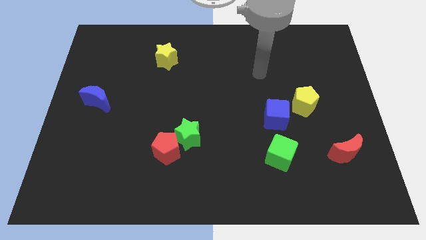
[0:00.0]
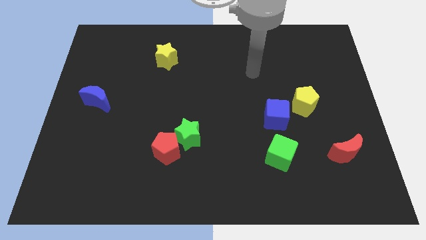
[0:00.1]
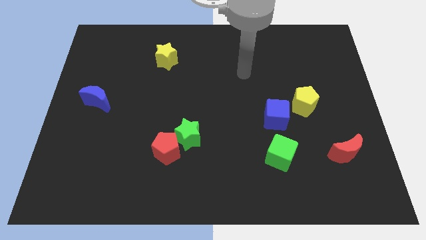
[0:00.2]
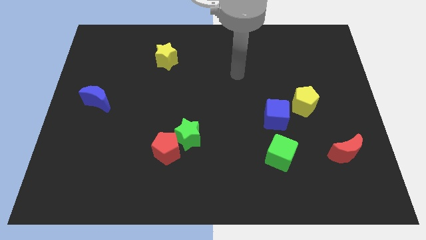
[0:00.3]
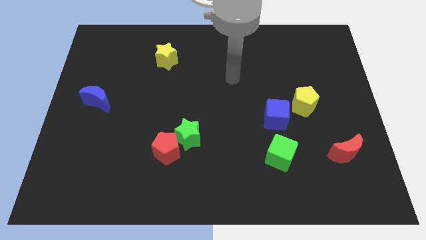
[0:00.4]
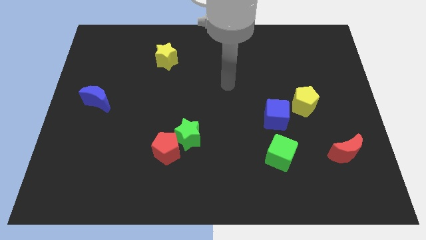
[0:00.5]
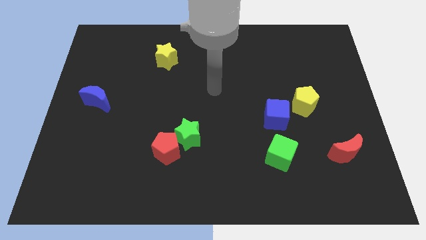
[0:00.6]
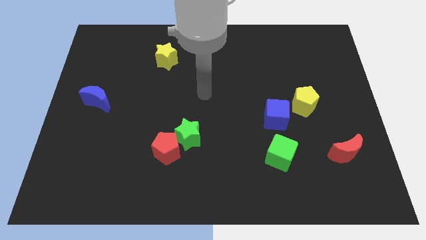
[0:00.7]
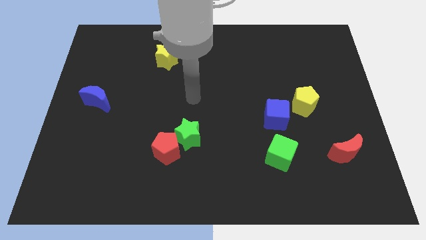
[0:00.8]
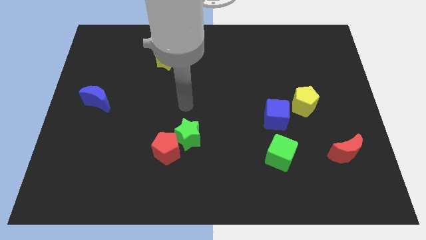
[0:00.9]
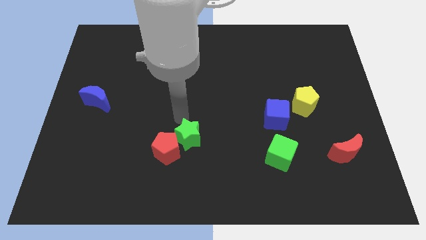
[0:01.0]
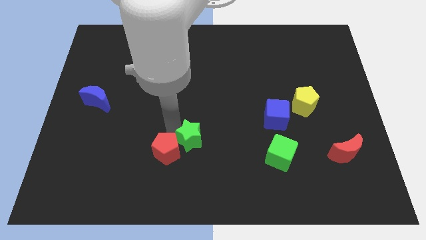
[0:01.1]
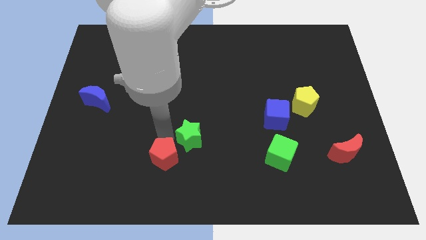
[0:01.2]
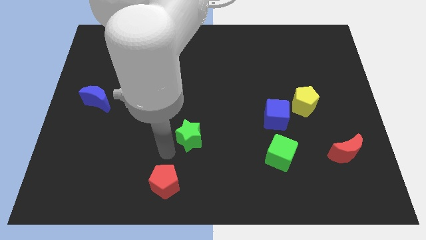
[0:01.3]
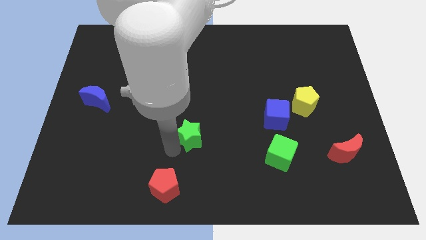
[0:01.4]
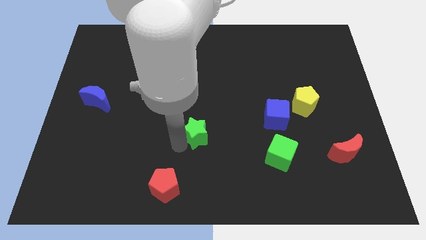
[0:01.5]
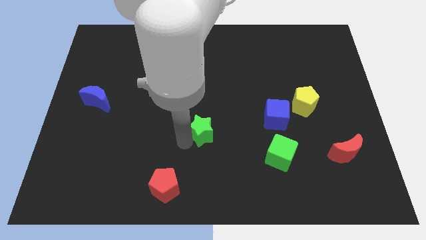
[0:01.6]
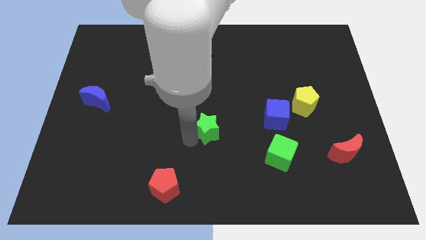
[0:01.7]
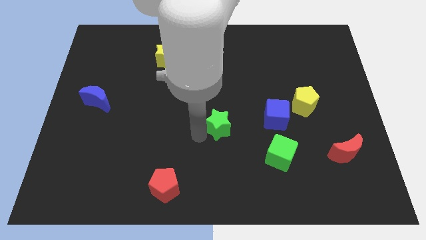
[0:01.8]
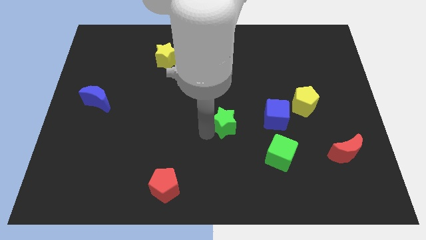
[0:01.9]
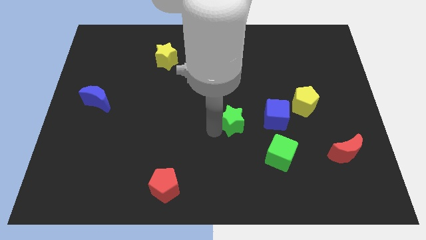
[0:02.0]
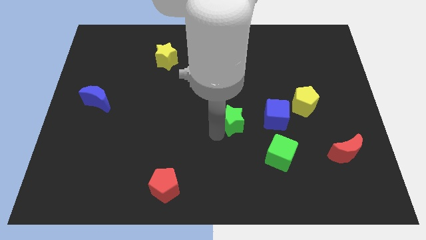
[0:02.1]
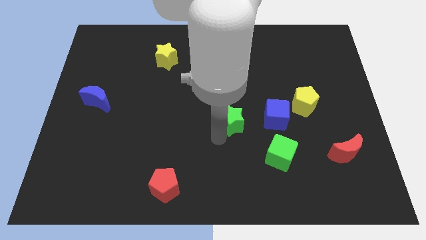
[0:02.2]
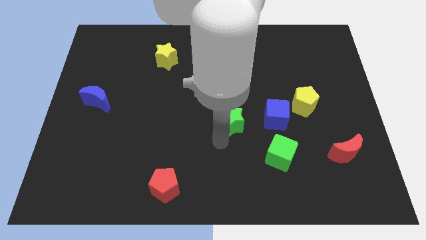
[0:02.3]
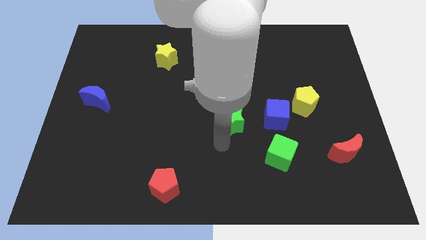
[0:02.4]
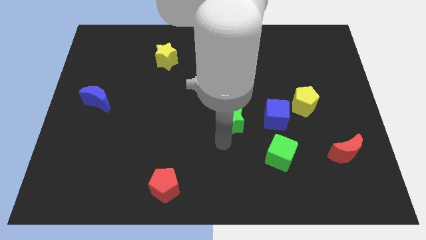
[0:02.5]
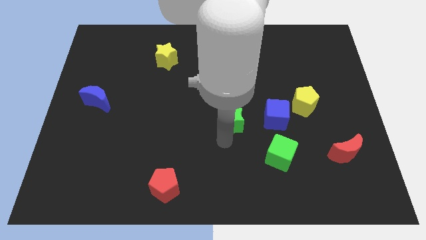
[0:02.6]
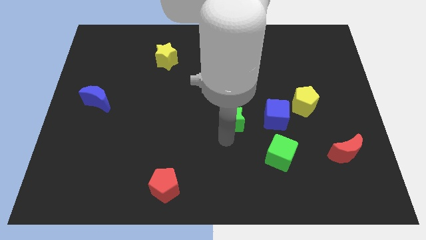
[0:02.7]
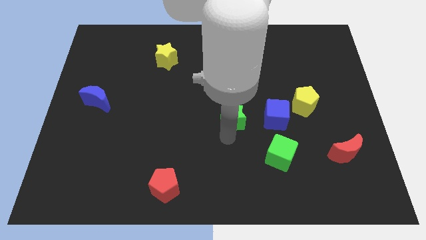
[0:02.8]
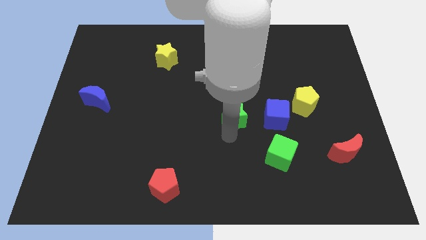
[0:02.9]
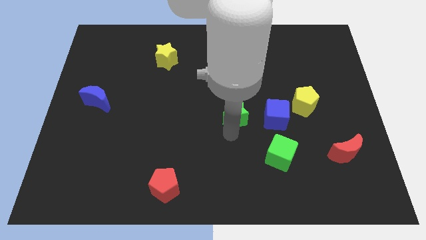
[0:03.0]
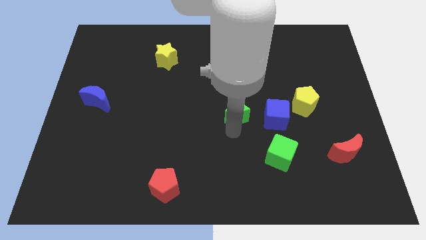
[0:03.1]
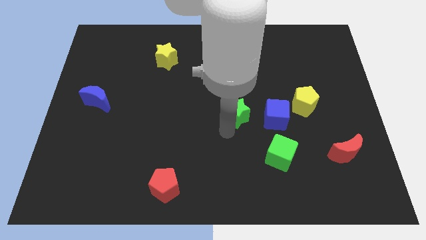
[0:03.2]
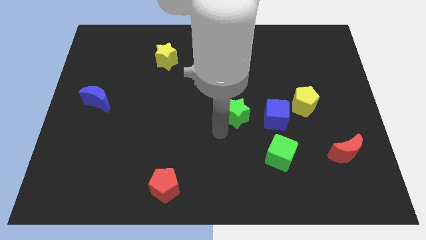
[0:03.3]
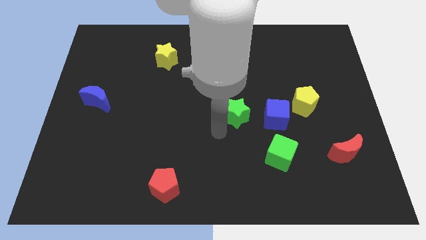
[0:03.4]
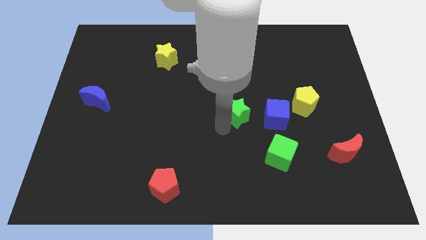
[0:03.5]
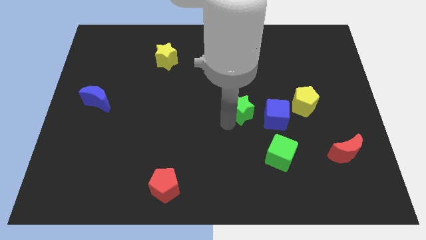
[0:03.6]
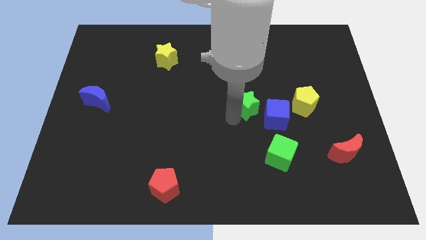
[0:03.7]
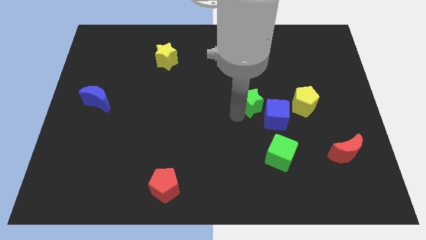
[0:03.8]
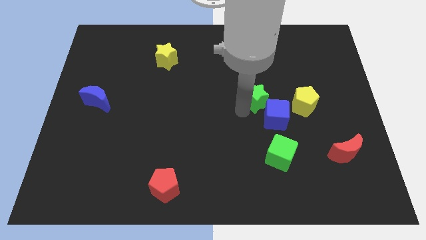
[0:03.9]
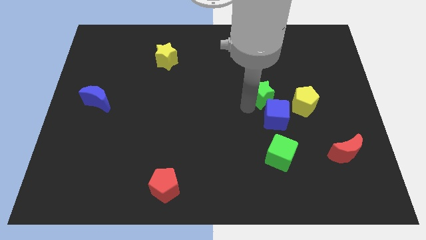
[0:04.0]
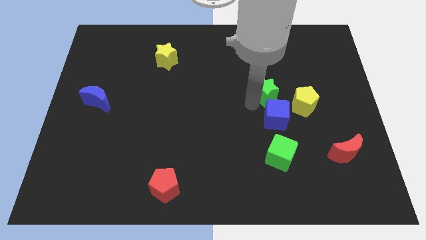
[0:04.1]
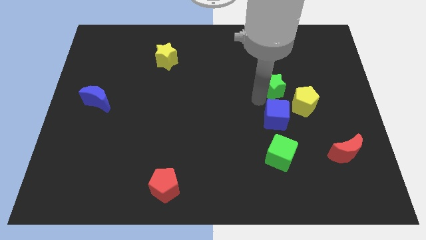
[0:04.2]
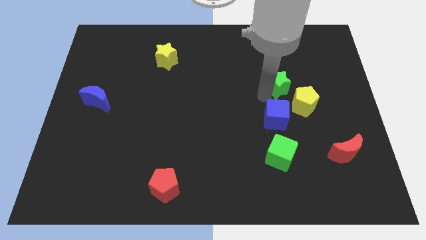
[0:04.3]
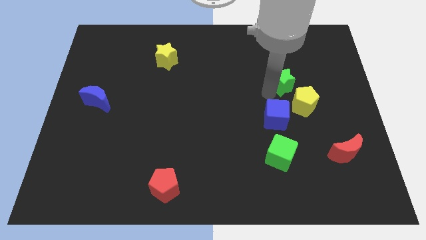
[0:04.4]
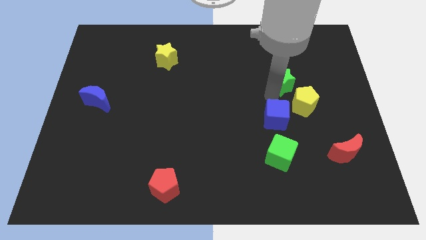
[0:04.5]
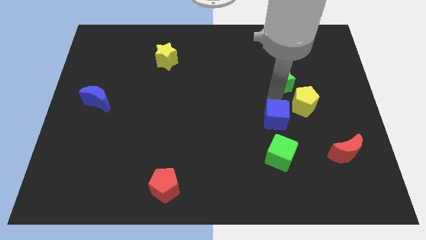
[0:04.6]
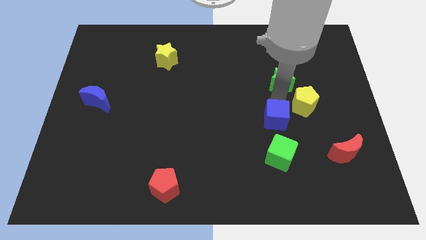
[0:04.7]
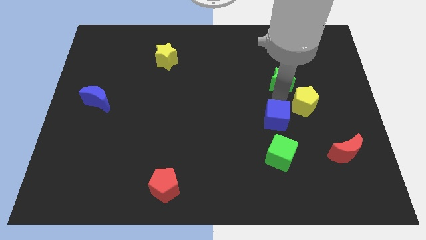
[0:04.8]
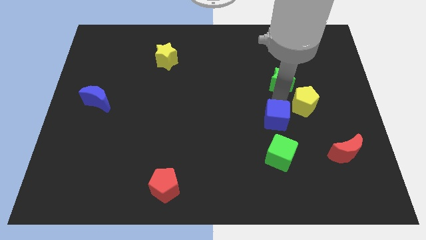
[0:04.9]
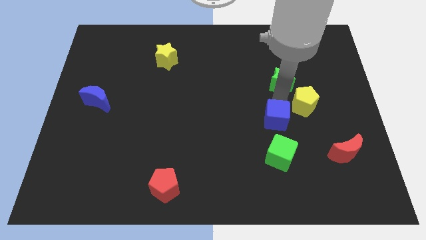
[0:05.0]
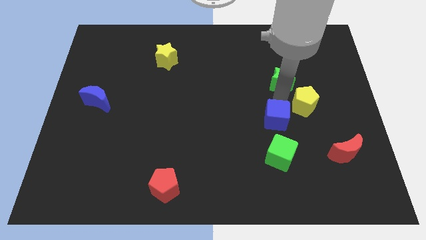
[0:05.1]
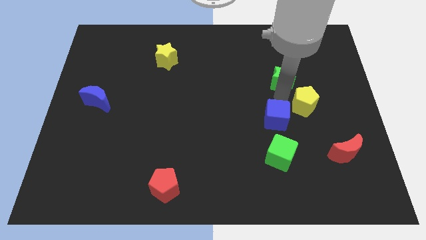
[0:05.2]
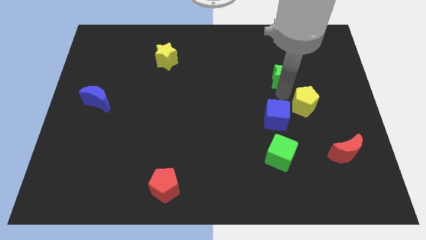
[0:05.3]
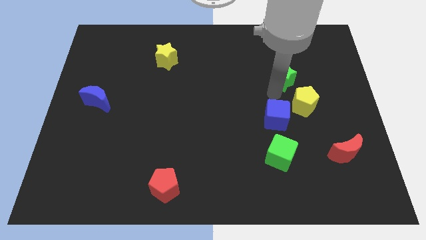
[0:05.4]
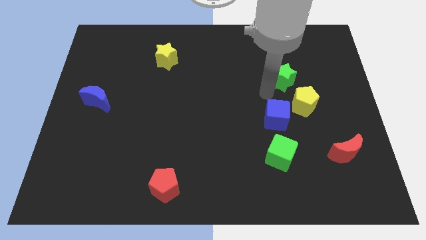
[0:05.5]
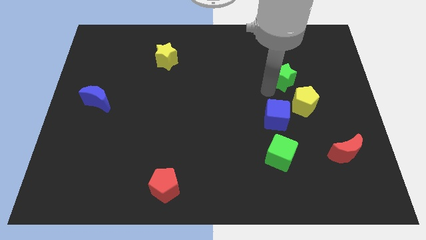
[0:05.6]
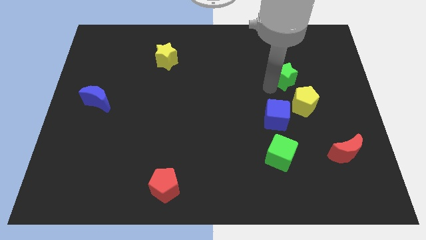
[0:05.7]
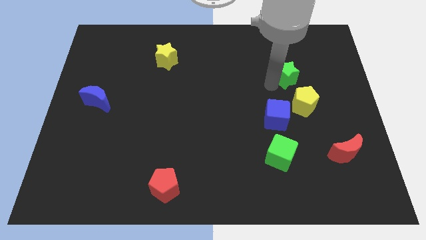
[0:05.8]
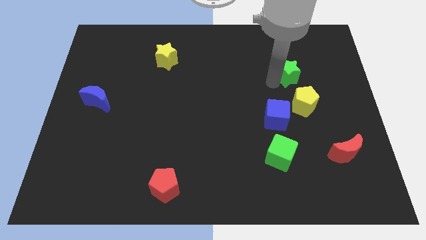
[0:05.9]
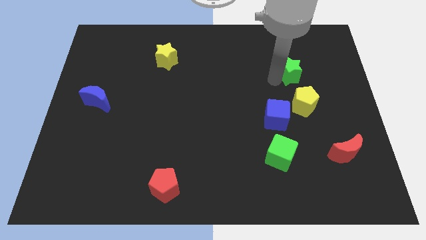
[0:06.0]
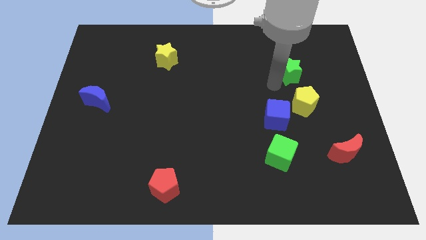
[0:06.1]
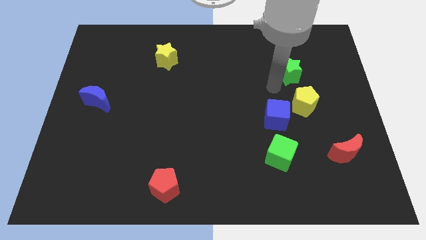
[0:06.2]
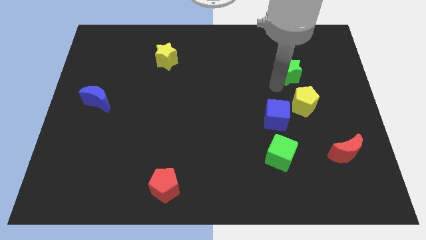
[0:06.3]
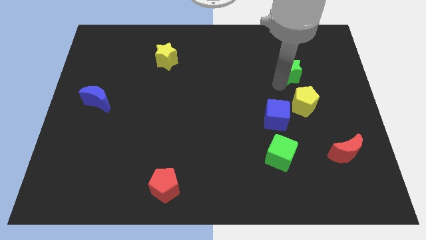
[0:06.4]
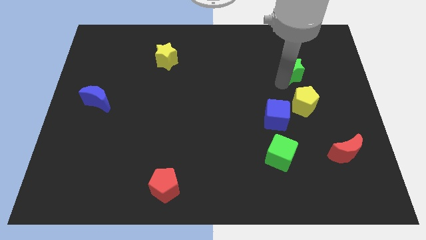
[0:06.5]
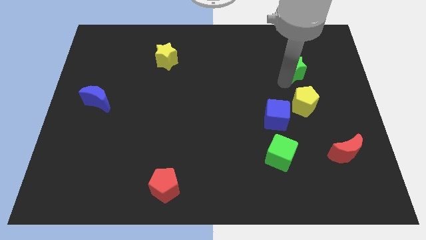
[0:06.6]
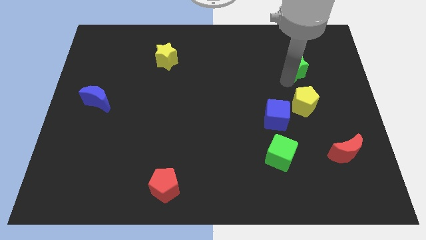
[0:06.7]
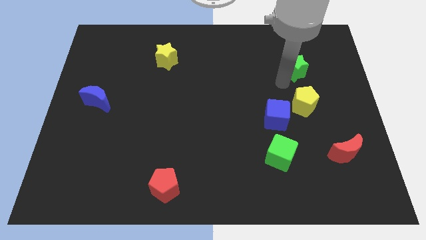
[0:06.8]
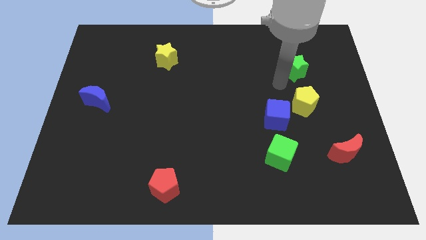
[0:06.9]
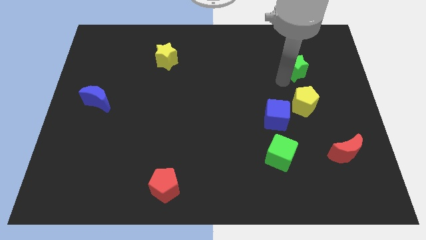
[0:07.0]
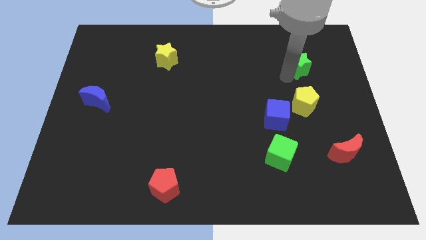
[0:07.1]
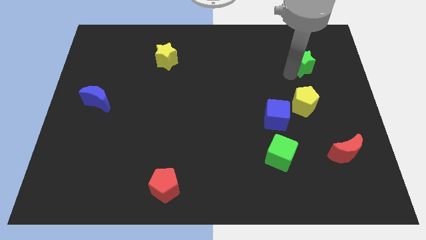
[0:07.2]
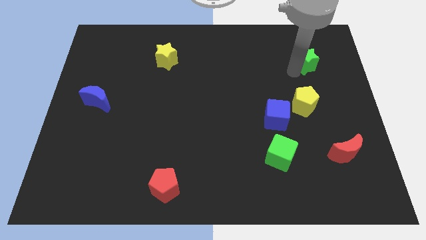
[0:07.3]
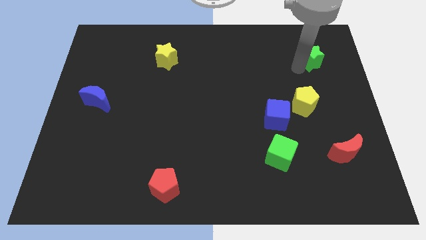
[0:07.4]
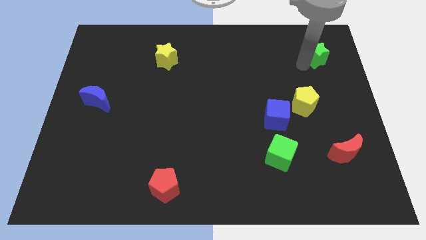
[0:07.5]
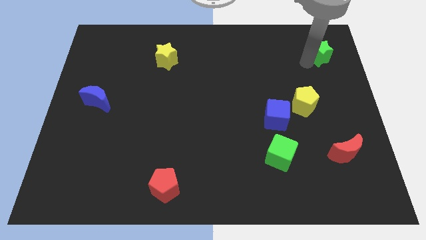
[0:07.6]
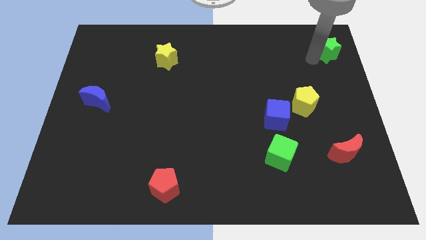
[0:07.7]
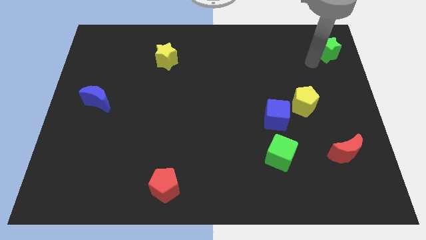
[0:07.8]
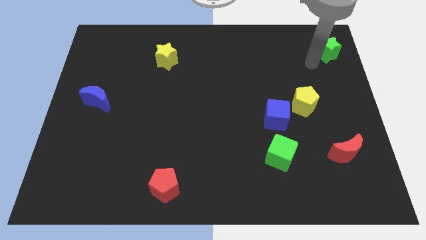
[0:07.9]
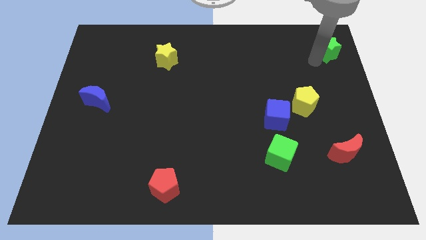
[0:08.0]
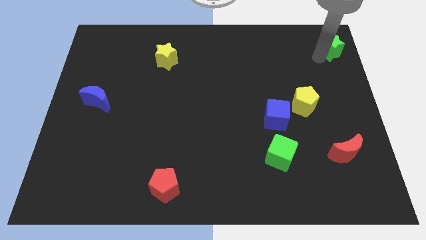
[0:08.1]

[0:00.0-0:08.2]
slide the green star to the upper right corner
